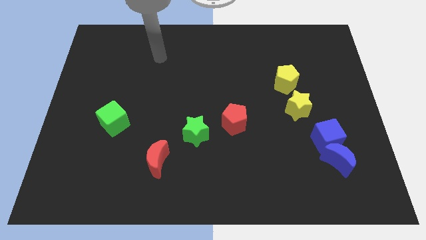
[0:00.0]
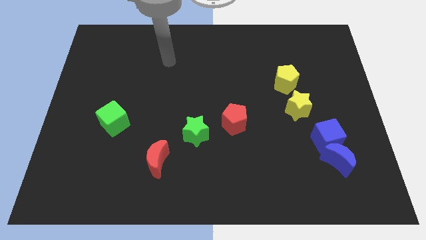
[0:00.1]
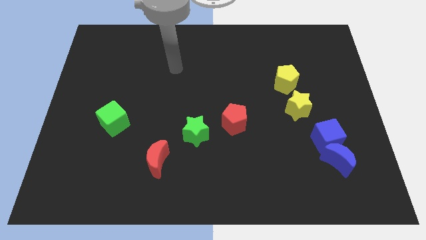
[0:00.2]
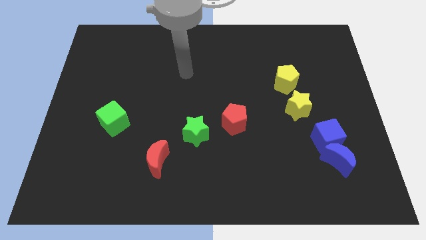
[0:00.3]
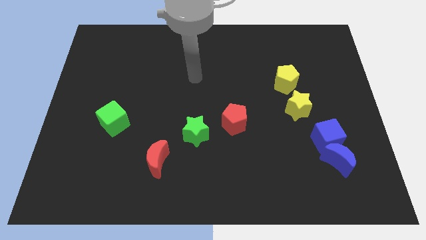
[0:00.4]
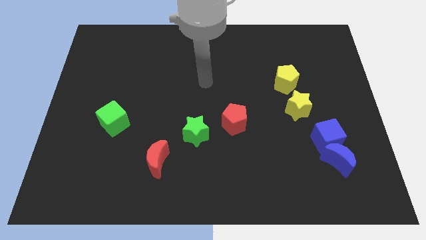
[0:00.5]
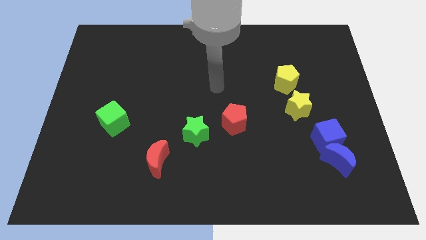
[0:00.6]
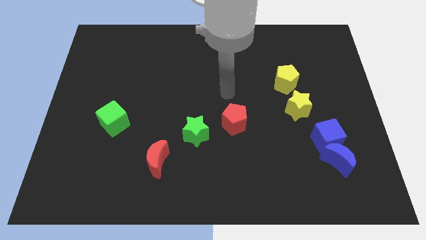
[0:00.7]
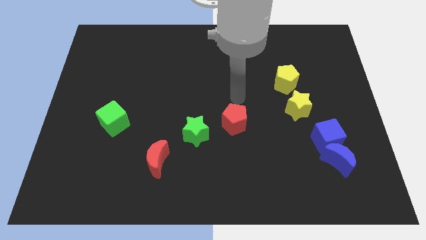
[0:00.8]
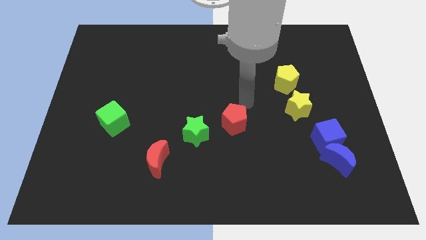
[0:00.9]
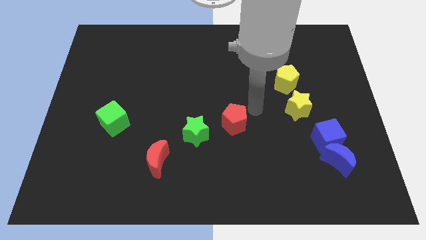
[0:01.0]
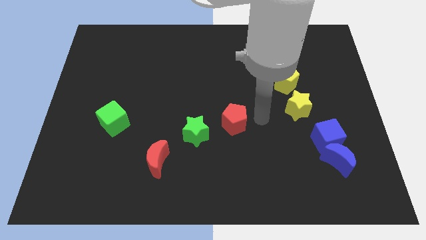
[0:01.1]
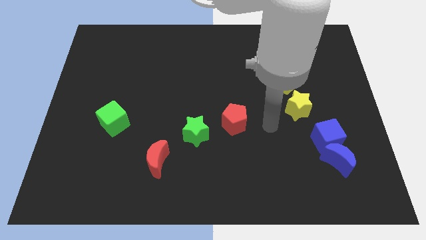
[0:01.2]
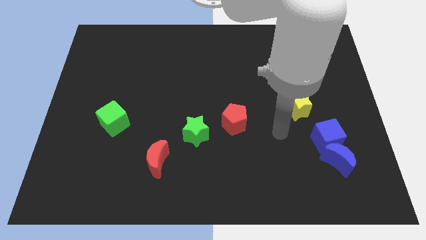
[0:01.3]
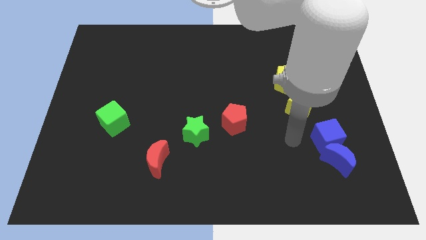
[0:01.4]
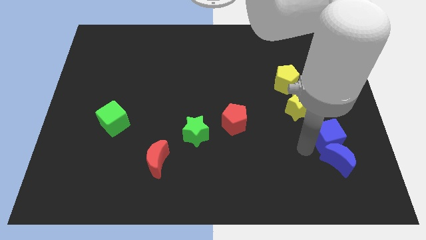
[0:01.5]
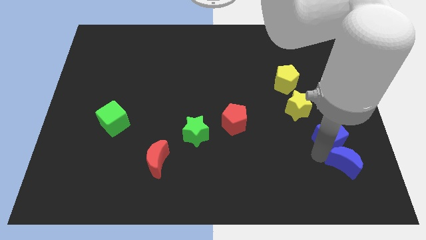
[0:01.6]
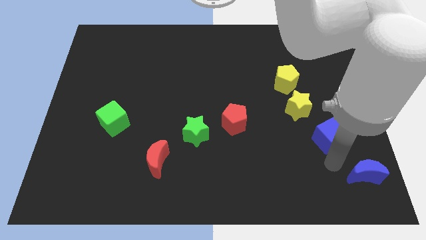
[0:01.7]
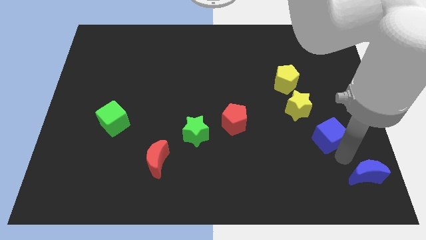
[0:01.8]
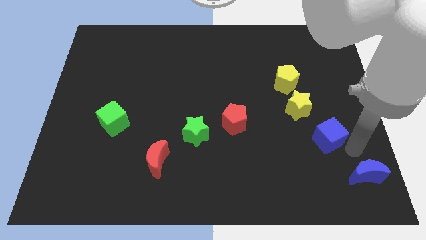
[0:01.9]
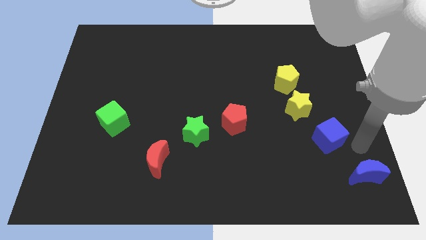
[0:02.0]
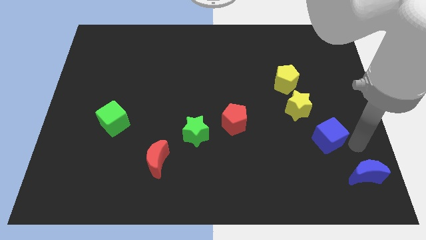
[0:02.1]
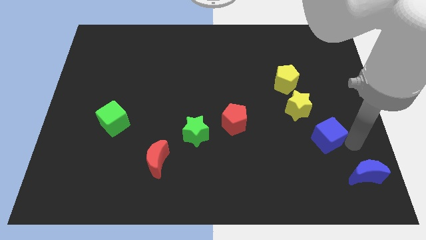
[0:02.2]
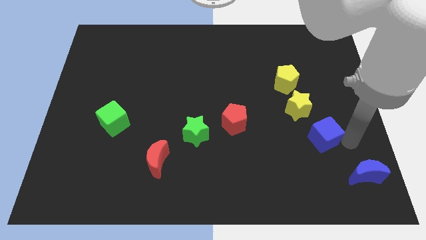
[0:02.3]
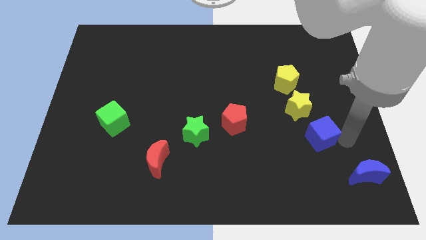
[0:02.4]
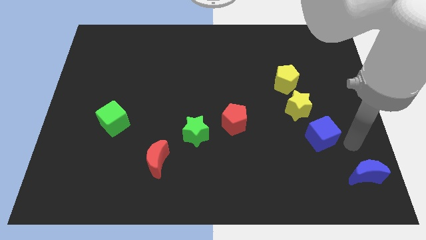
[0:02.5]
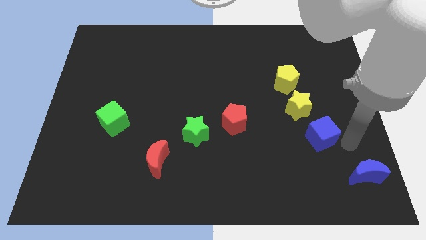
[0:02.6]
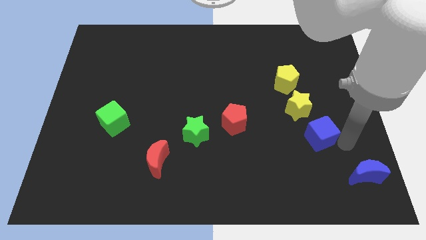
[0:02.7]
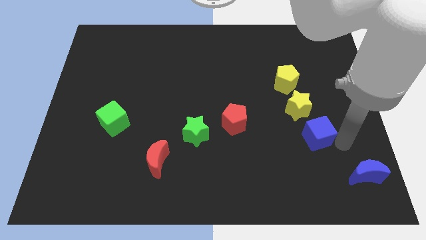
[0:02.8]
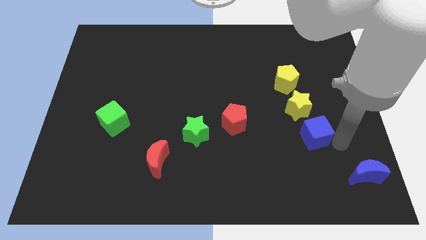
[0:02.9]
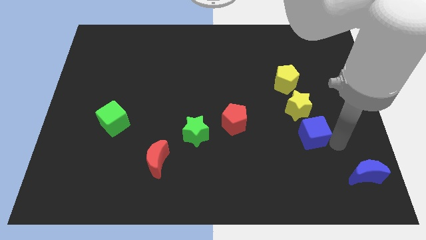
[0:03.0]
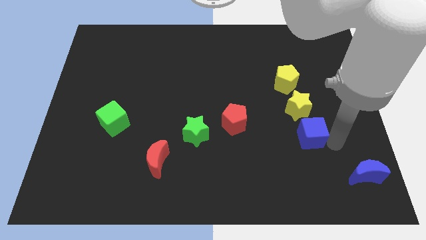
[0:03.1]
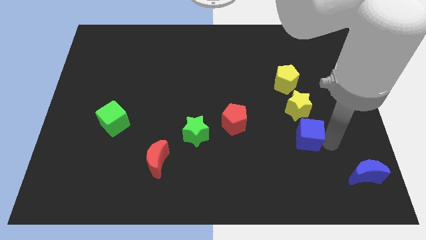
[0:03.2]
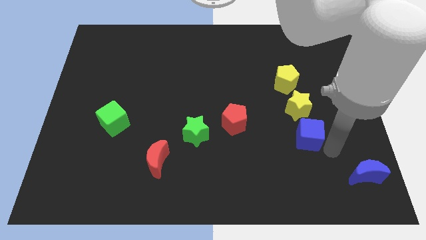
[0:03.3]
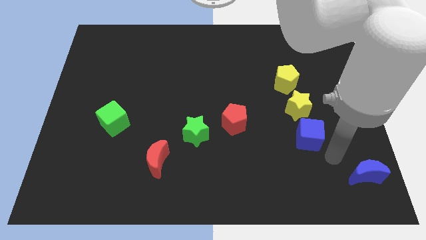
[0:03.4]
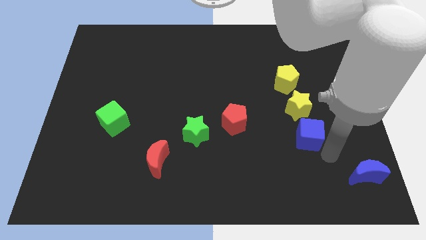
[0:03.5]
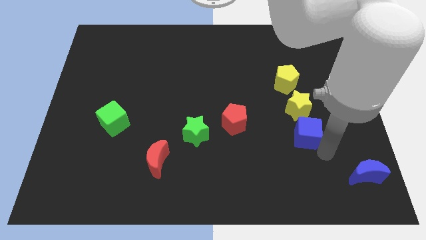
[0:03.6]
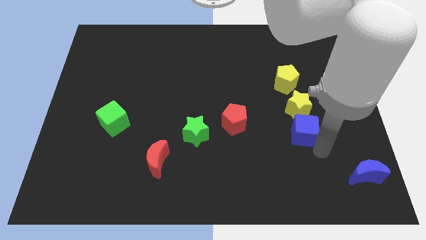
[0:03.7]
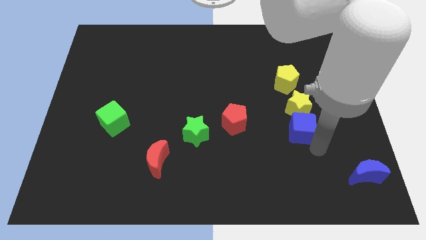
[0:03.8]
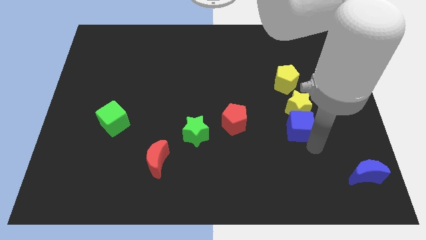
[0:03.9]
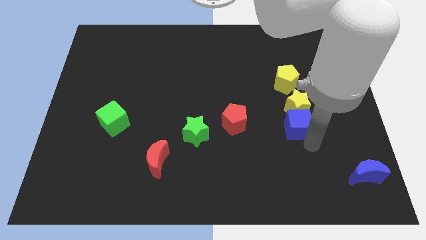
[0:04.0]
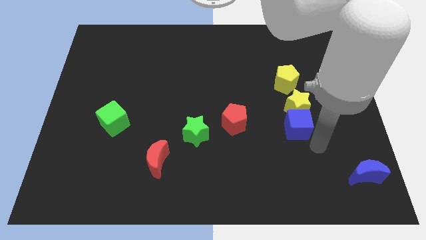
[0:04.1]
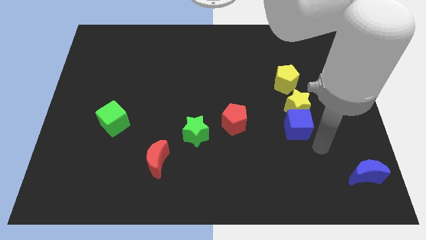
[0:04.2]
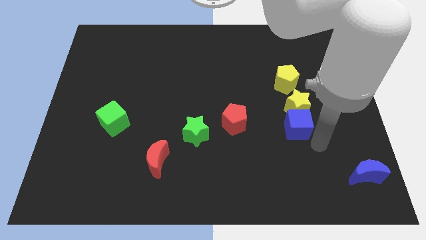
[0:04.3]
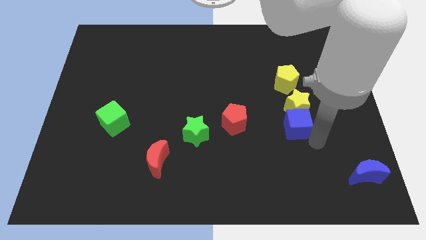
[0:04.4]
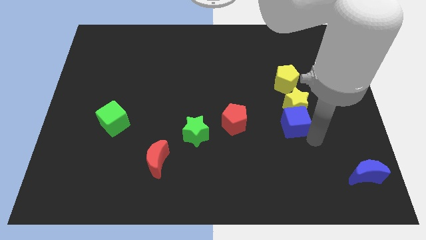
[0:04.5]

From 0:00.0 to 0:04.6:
slightly push the blue cube up and then to the left

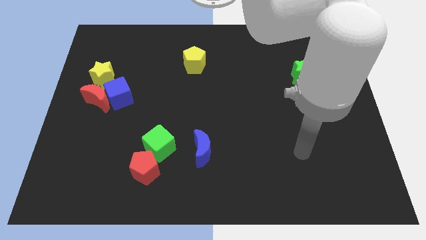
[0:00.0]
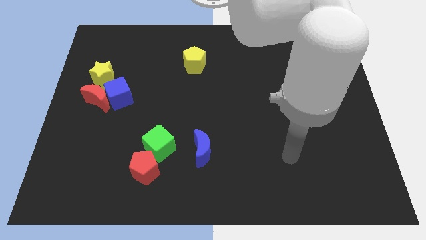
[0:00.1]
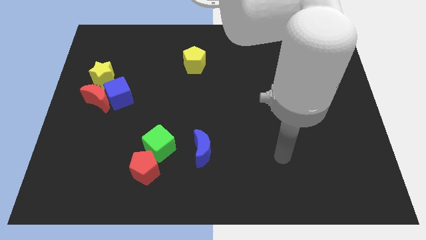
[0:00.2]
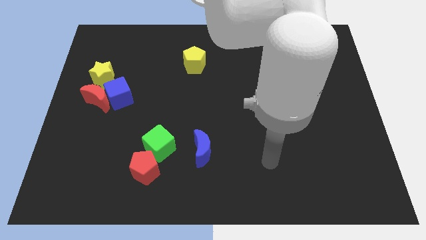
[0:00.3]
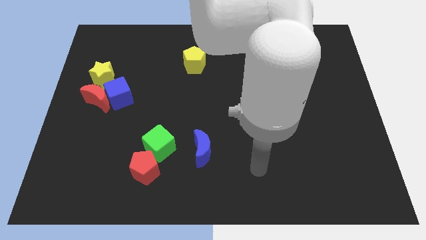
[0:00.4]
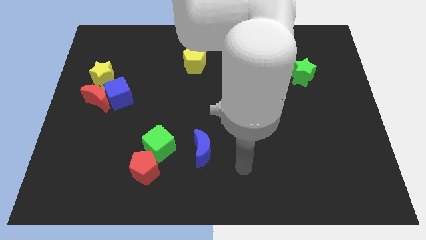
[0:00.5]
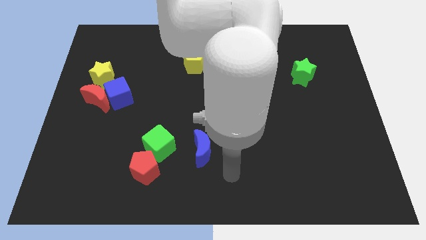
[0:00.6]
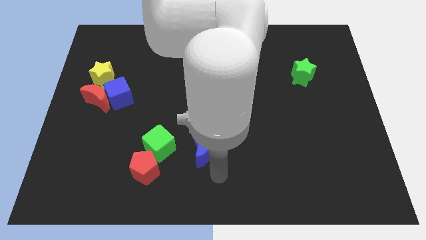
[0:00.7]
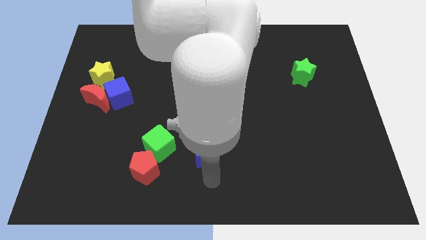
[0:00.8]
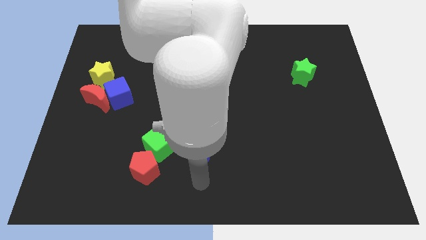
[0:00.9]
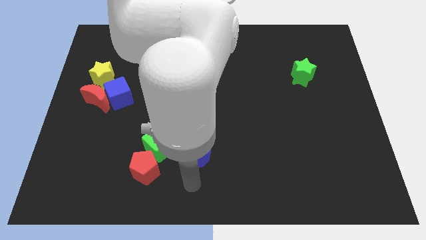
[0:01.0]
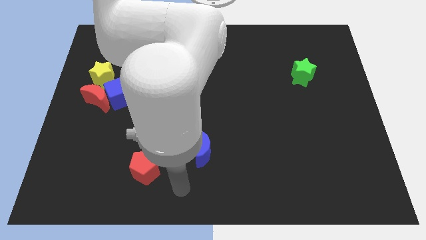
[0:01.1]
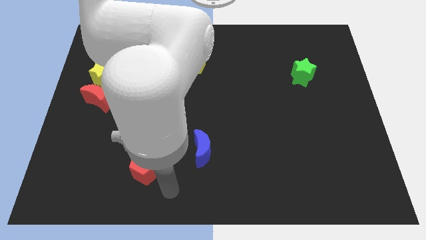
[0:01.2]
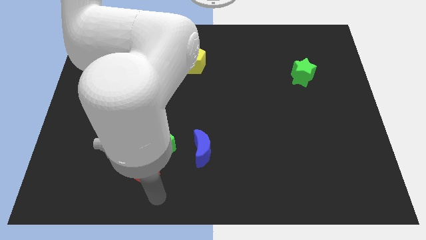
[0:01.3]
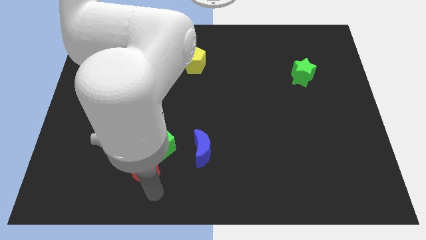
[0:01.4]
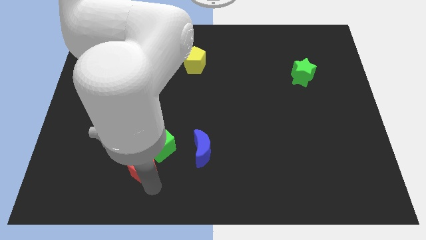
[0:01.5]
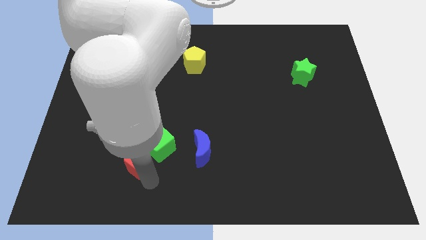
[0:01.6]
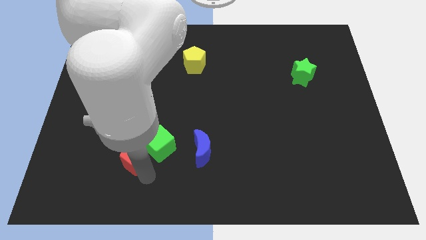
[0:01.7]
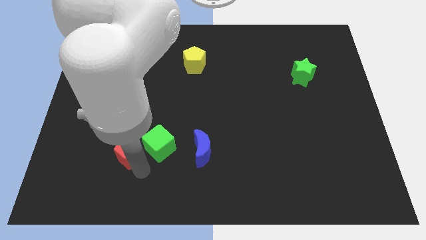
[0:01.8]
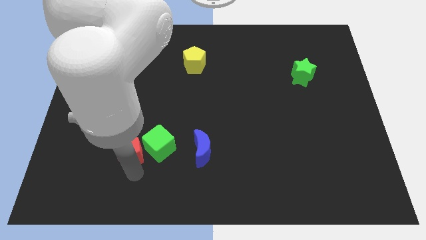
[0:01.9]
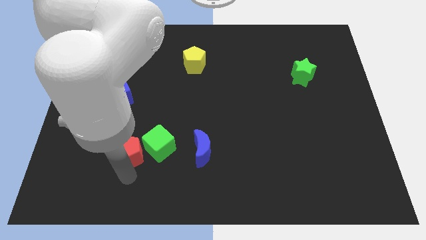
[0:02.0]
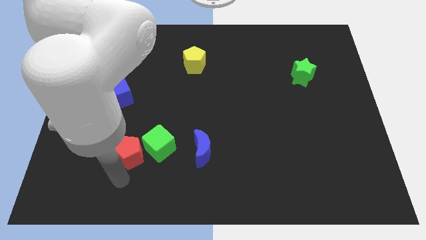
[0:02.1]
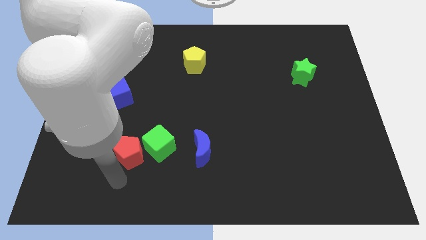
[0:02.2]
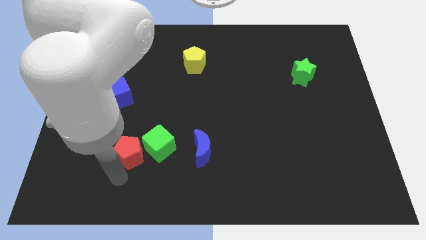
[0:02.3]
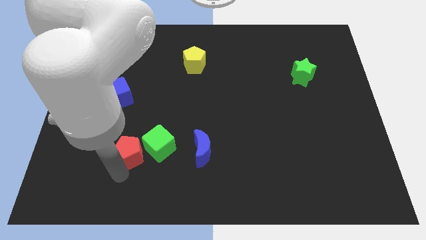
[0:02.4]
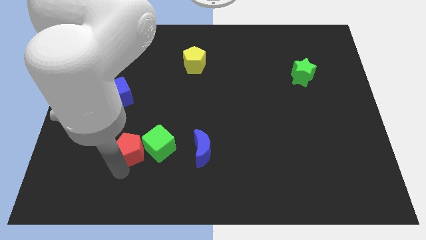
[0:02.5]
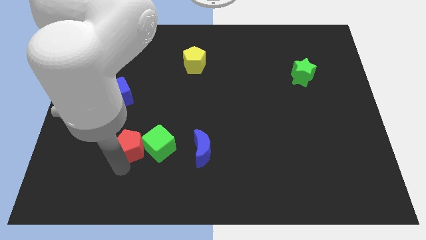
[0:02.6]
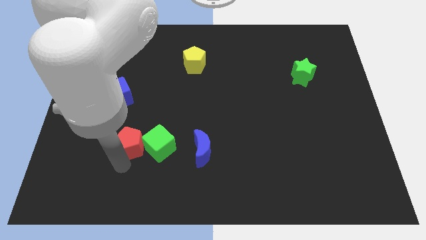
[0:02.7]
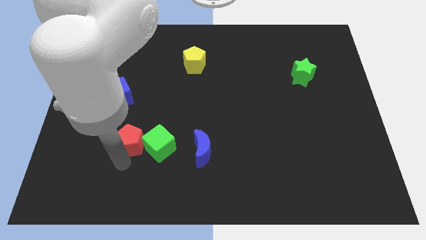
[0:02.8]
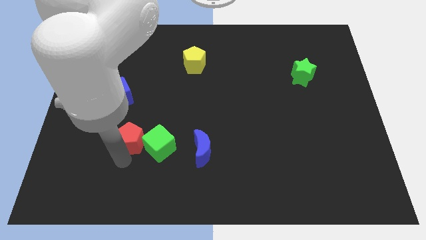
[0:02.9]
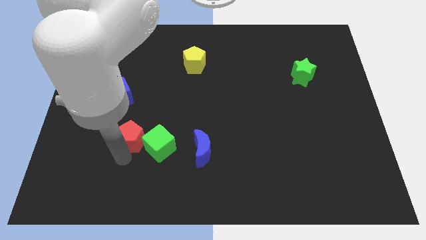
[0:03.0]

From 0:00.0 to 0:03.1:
move the red pentagon upwards a bit
